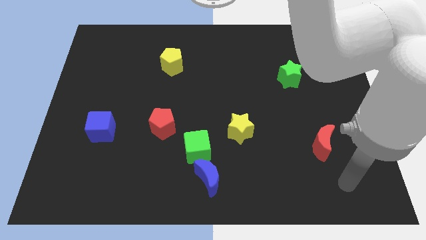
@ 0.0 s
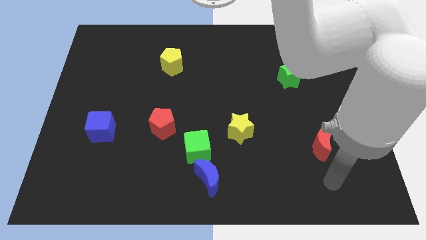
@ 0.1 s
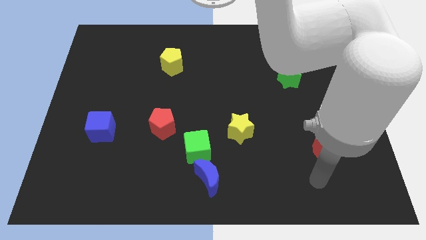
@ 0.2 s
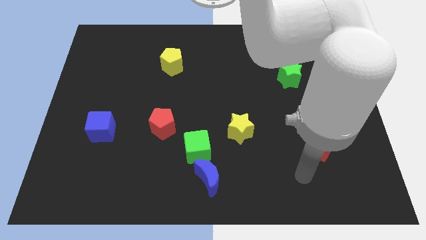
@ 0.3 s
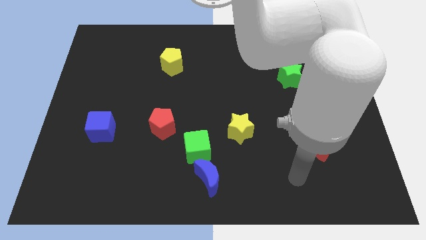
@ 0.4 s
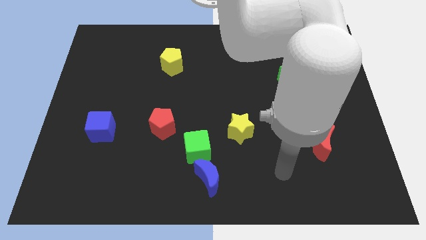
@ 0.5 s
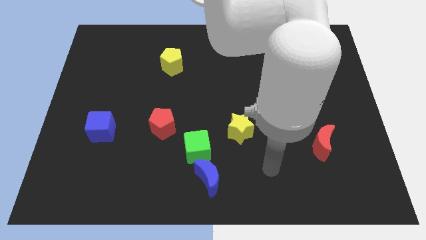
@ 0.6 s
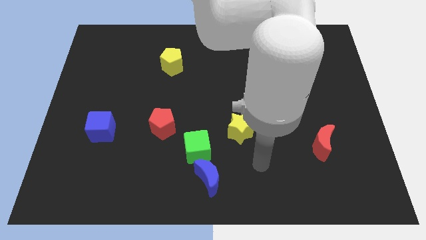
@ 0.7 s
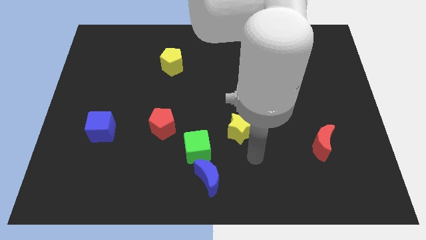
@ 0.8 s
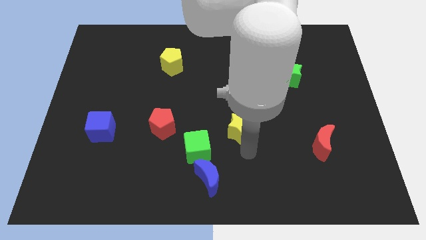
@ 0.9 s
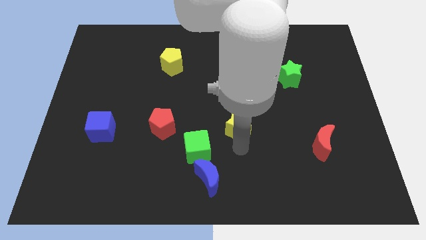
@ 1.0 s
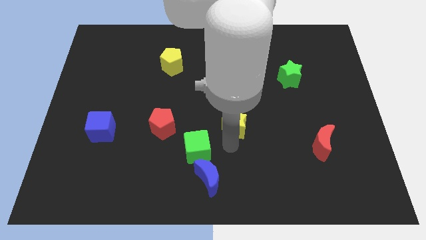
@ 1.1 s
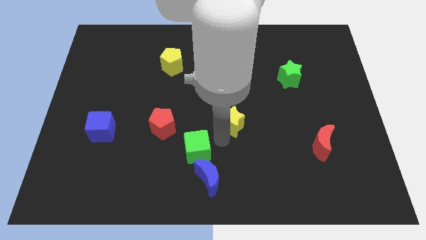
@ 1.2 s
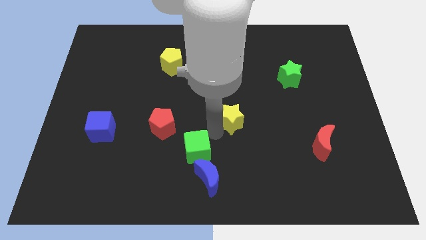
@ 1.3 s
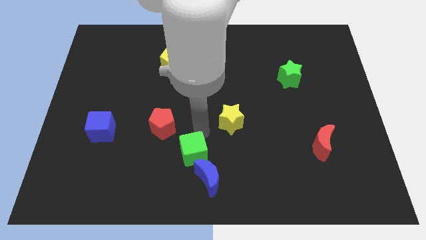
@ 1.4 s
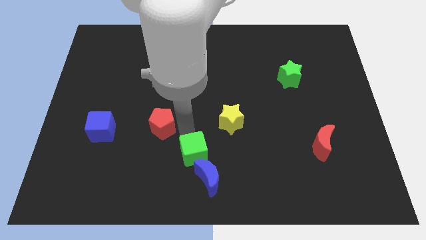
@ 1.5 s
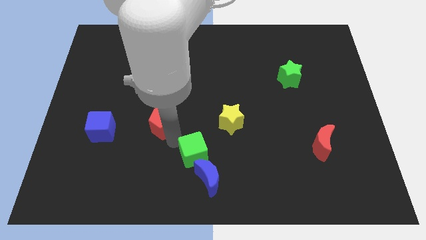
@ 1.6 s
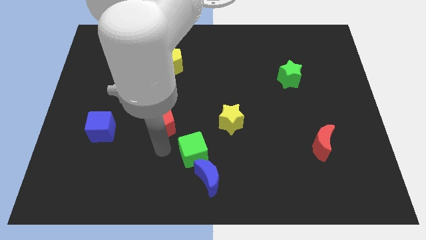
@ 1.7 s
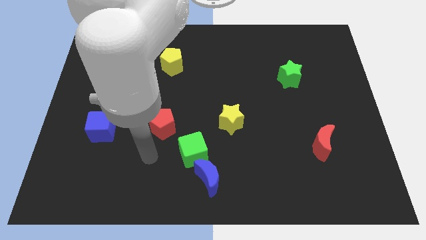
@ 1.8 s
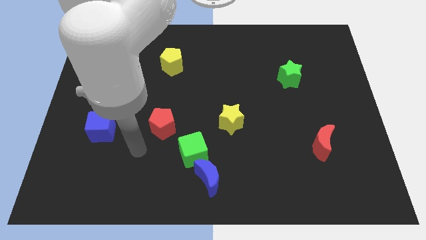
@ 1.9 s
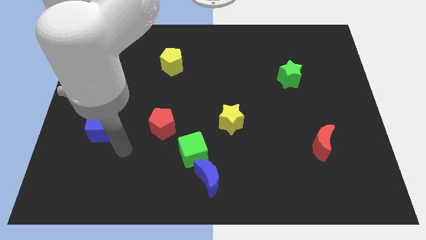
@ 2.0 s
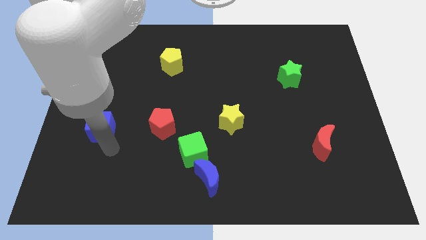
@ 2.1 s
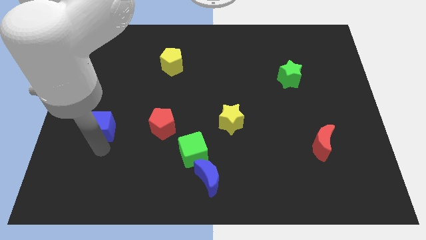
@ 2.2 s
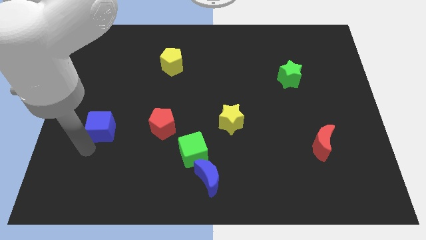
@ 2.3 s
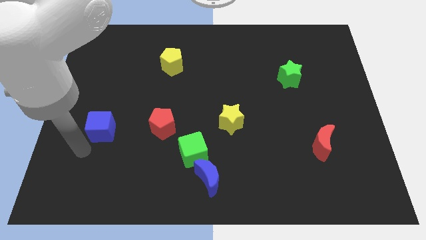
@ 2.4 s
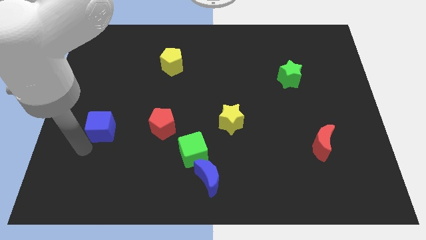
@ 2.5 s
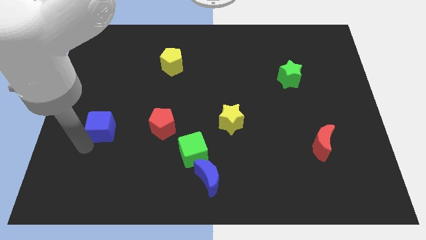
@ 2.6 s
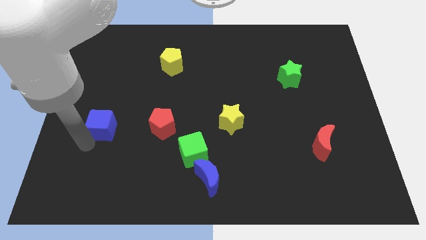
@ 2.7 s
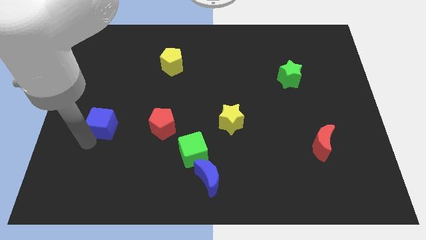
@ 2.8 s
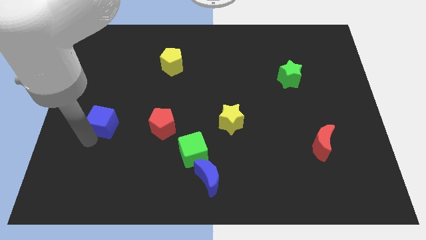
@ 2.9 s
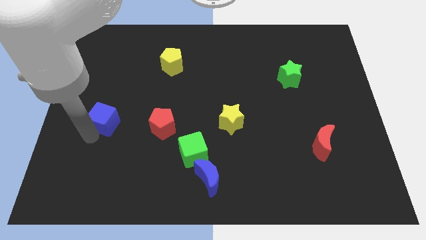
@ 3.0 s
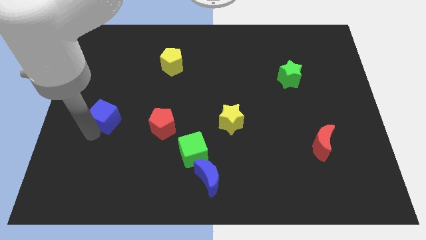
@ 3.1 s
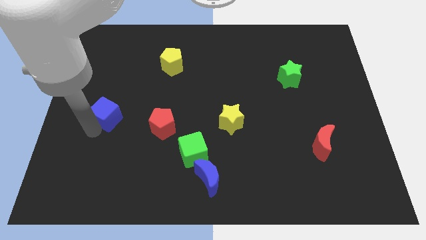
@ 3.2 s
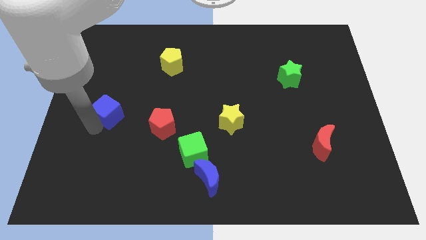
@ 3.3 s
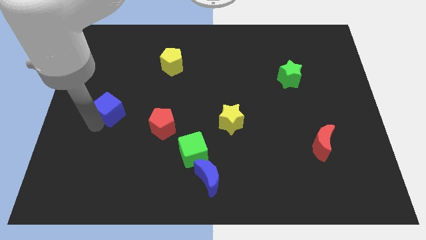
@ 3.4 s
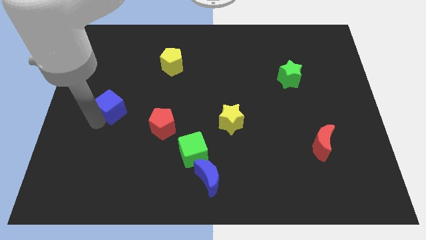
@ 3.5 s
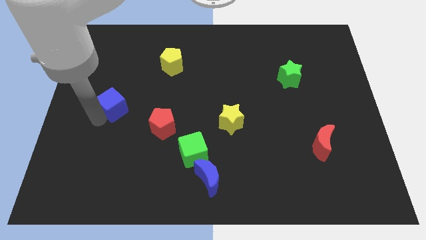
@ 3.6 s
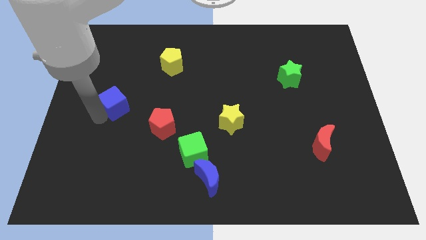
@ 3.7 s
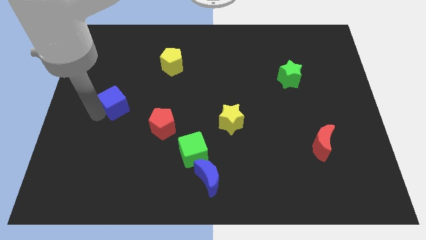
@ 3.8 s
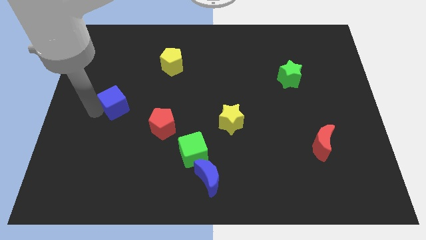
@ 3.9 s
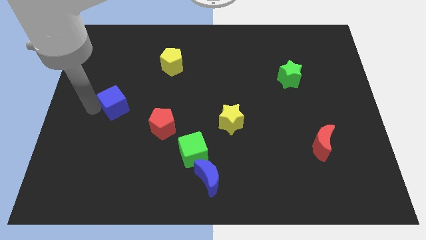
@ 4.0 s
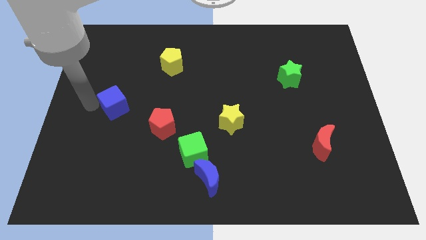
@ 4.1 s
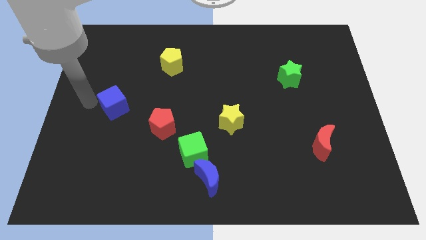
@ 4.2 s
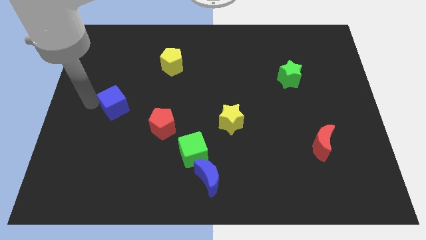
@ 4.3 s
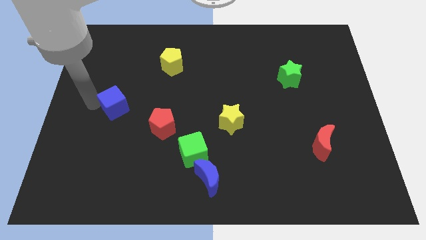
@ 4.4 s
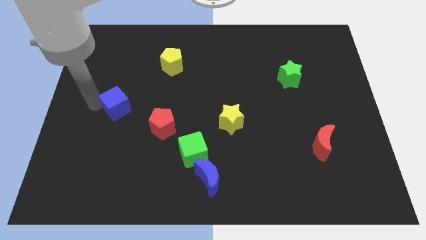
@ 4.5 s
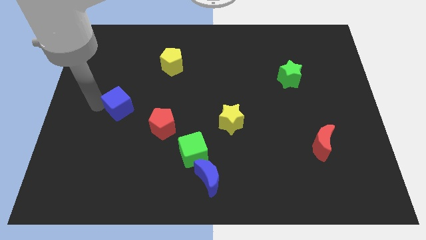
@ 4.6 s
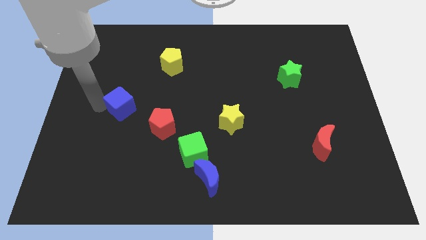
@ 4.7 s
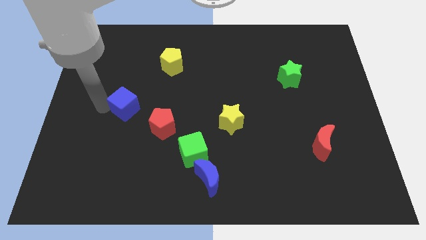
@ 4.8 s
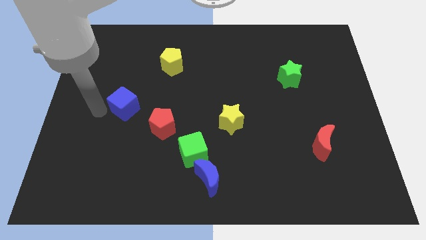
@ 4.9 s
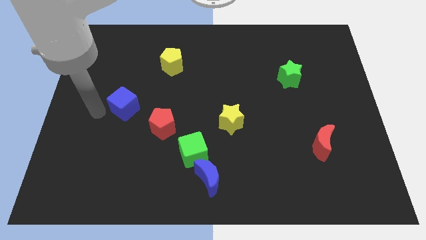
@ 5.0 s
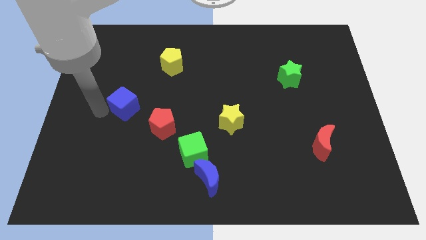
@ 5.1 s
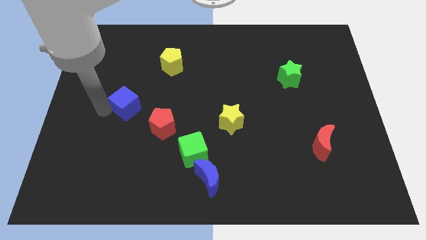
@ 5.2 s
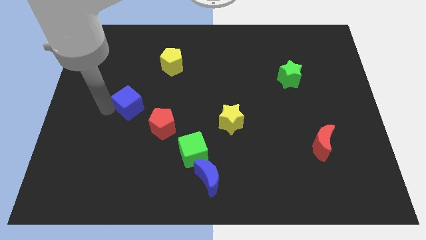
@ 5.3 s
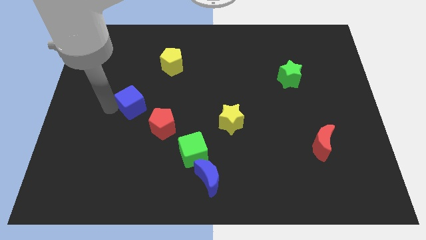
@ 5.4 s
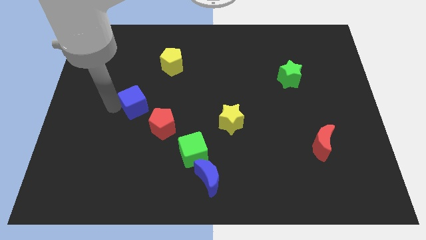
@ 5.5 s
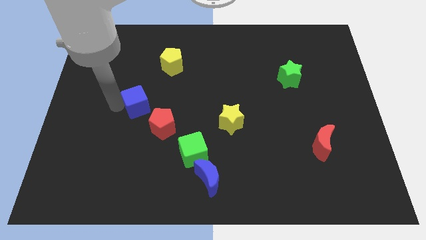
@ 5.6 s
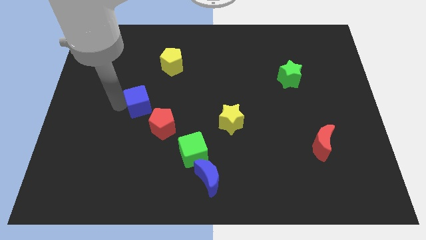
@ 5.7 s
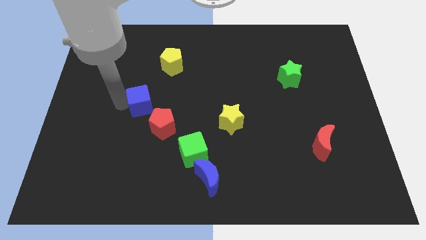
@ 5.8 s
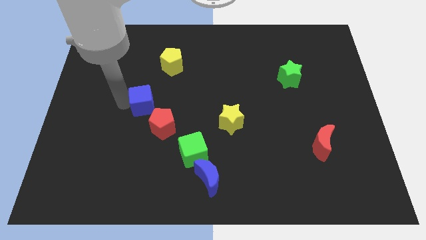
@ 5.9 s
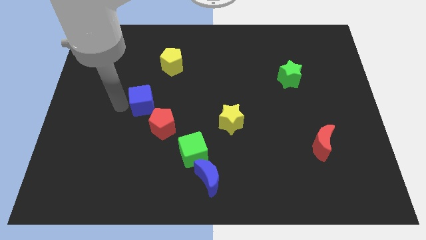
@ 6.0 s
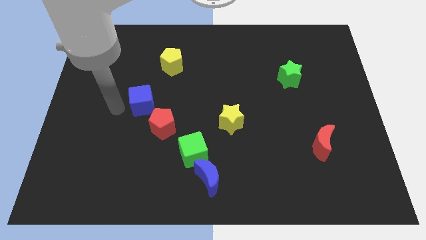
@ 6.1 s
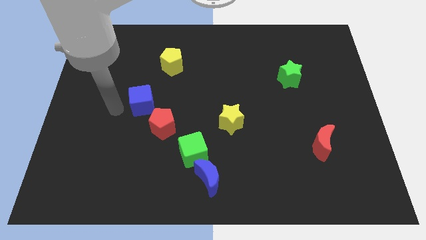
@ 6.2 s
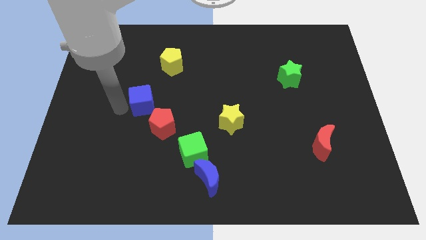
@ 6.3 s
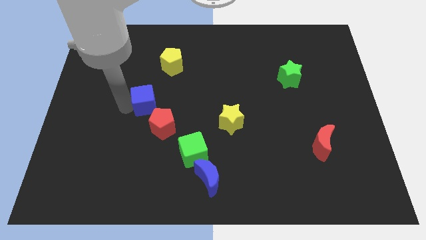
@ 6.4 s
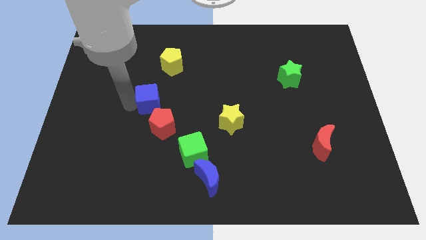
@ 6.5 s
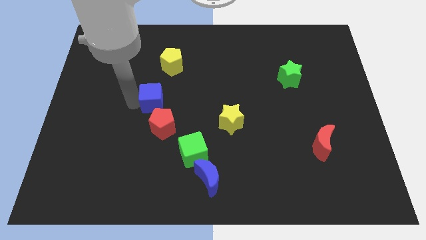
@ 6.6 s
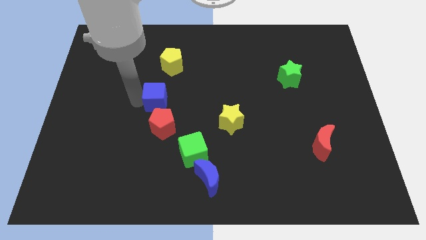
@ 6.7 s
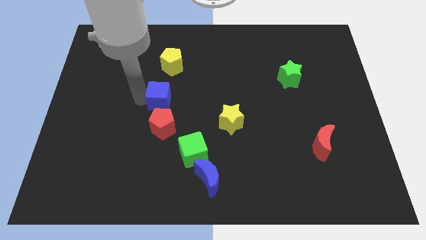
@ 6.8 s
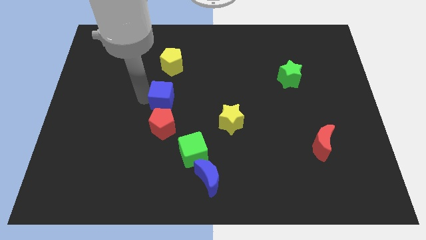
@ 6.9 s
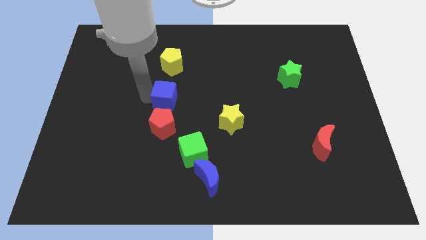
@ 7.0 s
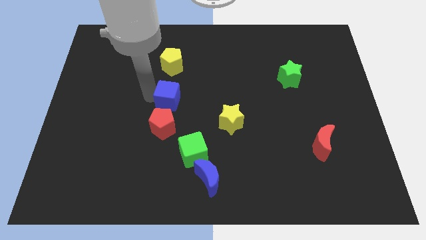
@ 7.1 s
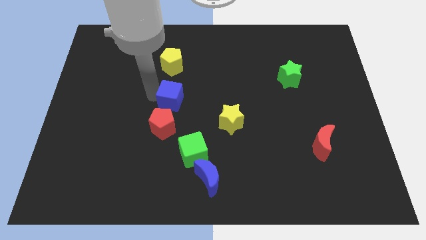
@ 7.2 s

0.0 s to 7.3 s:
slide the blue cube to the top right of the red pentagon

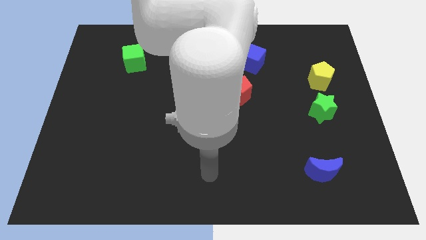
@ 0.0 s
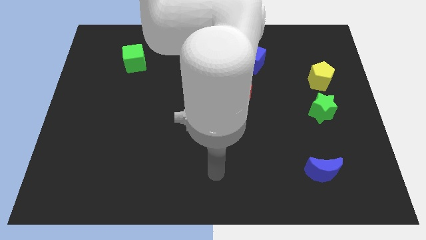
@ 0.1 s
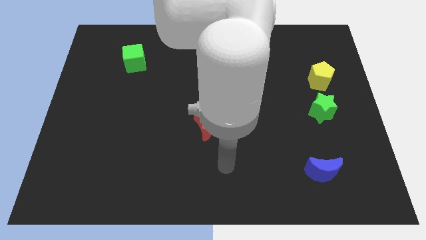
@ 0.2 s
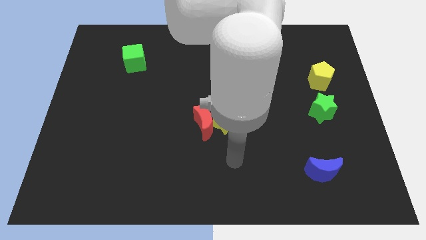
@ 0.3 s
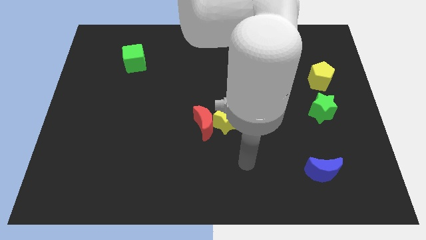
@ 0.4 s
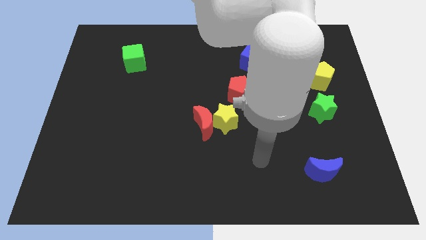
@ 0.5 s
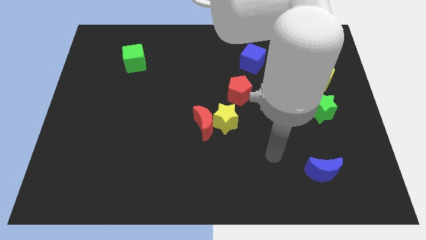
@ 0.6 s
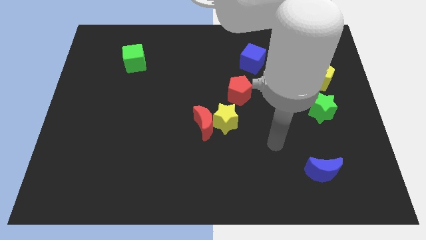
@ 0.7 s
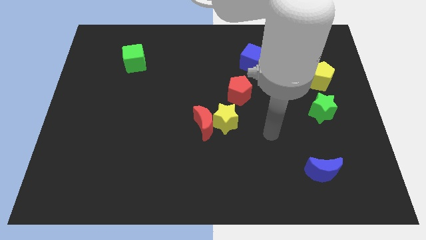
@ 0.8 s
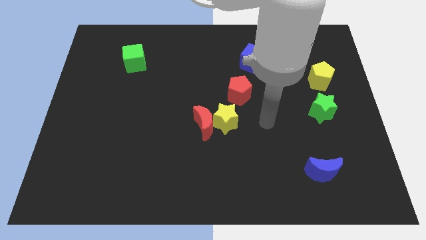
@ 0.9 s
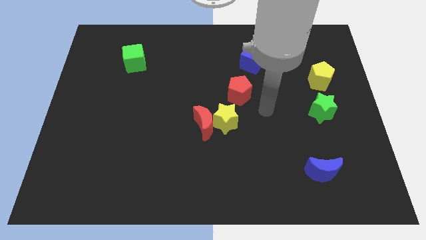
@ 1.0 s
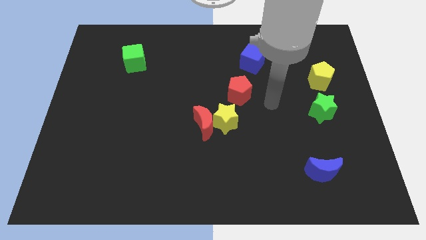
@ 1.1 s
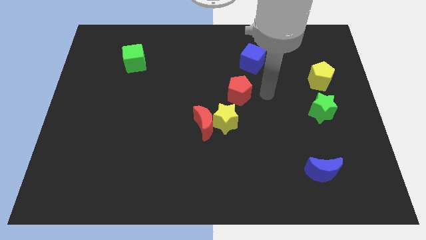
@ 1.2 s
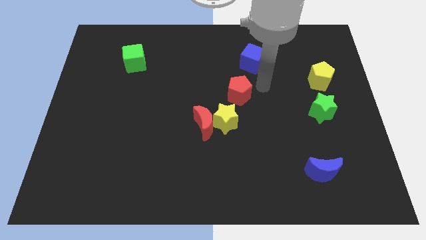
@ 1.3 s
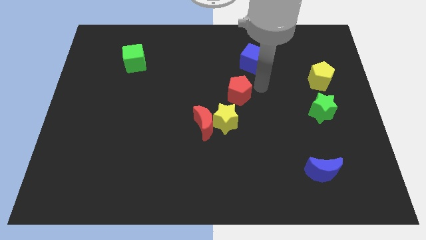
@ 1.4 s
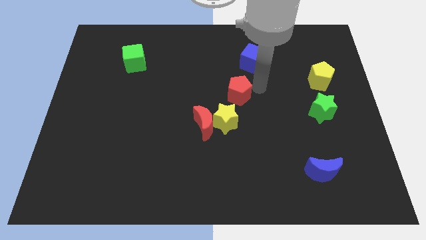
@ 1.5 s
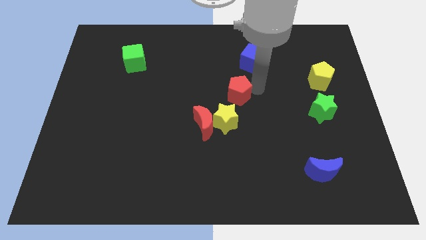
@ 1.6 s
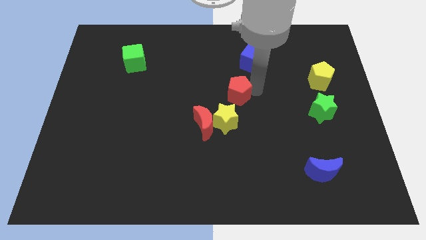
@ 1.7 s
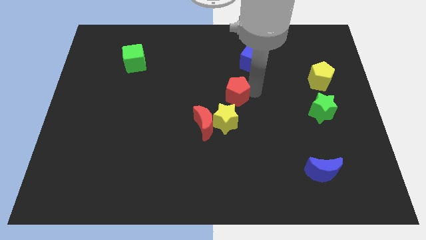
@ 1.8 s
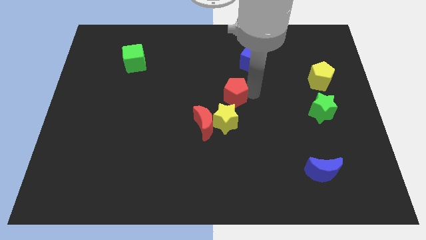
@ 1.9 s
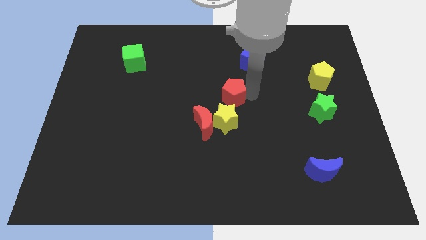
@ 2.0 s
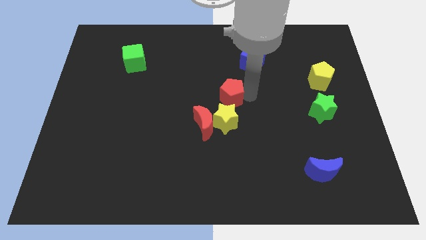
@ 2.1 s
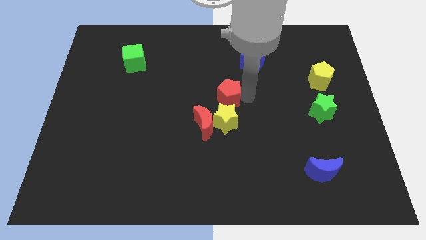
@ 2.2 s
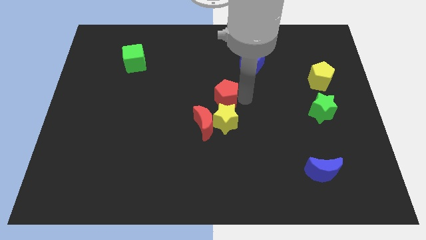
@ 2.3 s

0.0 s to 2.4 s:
slide the red pentagon to the top left of the yellow star
